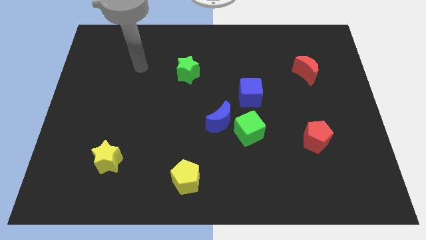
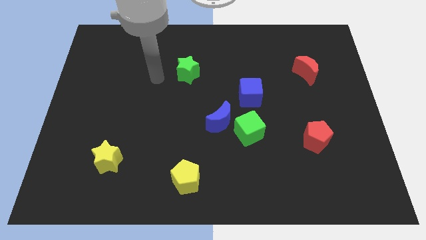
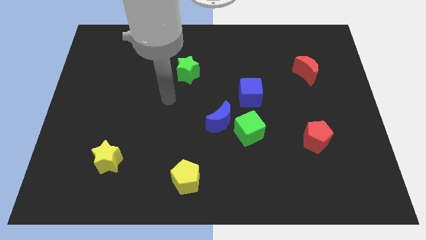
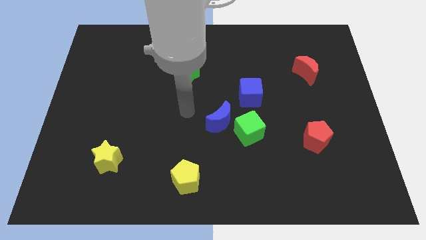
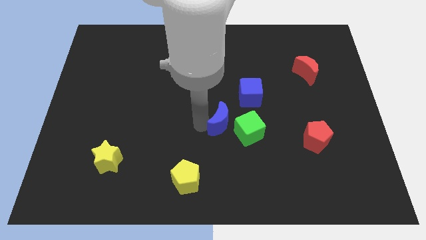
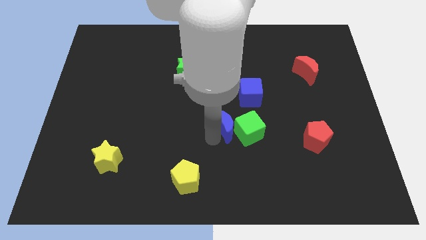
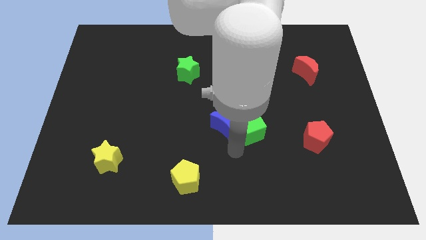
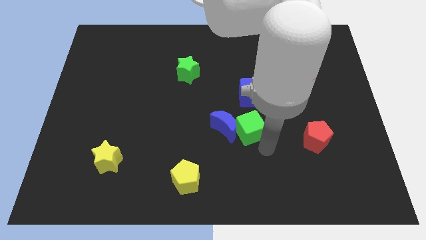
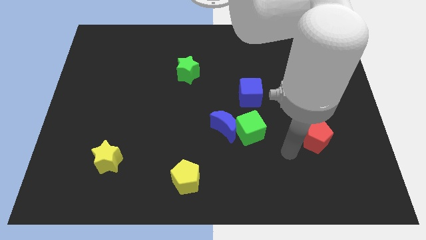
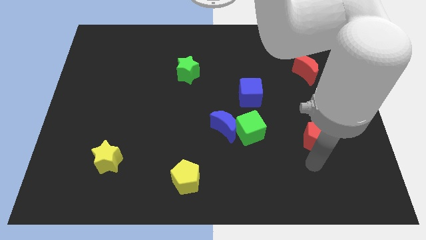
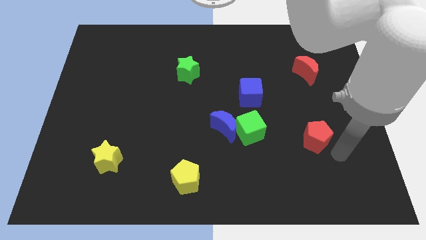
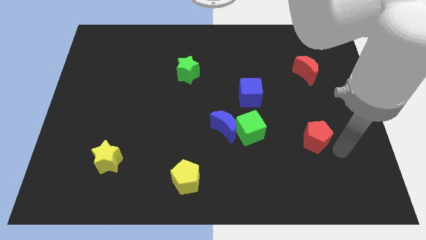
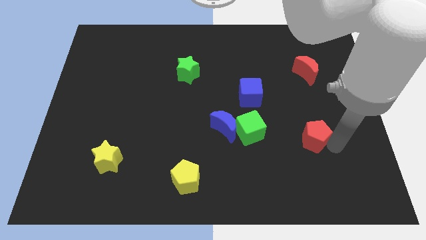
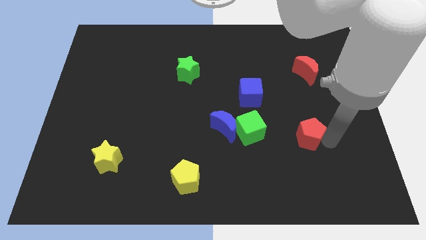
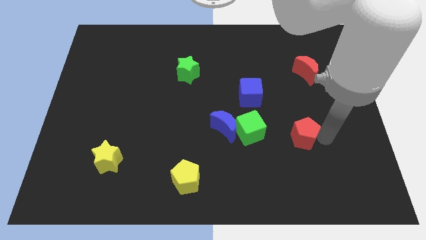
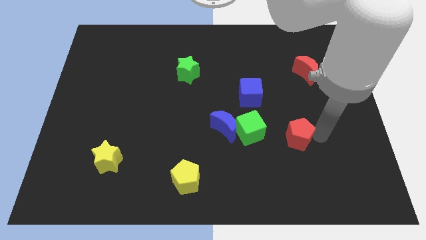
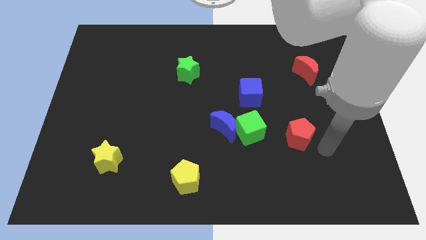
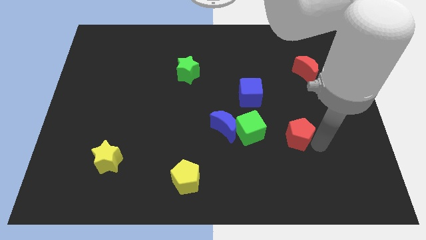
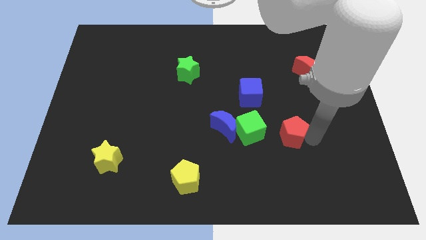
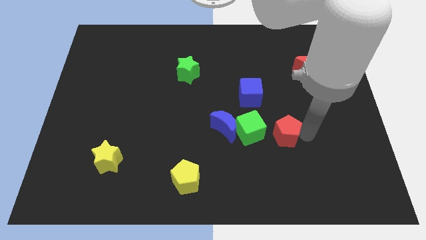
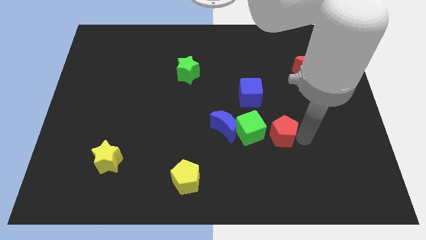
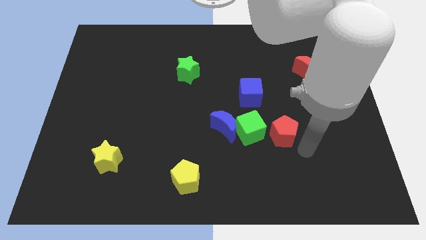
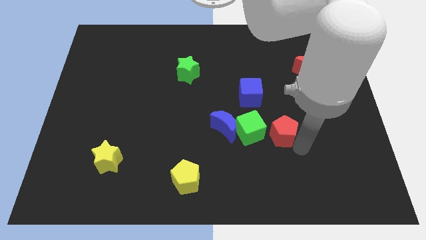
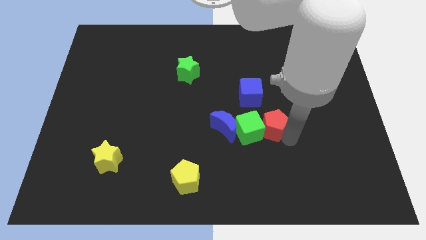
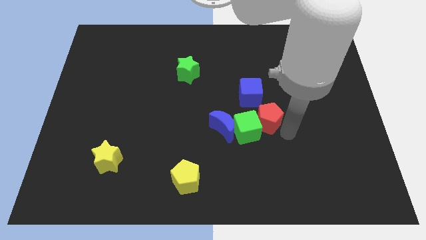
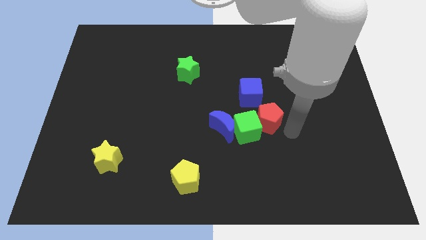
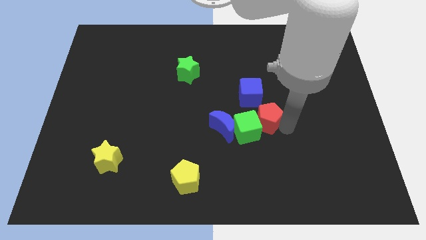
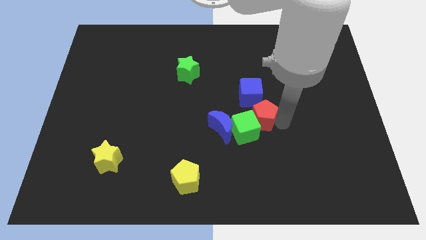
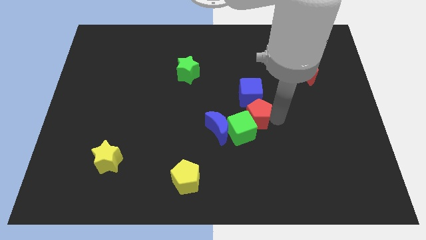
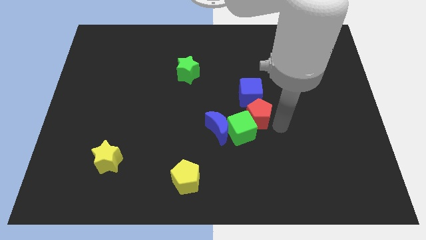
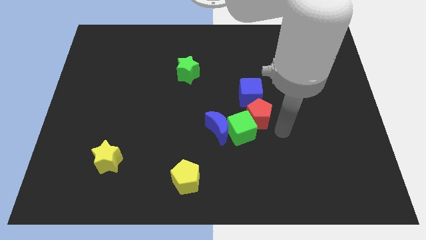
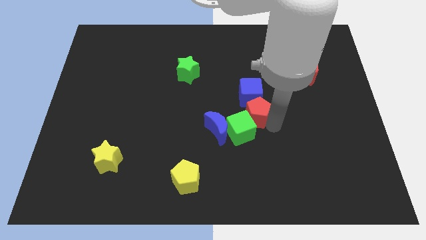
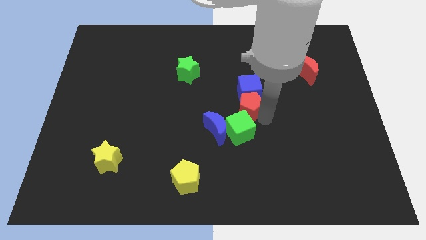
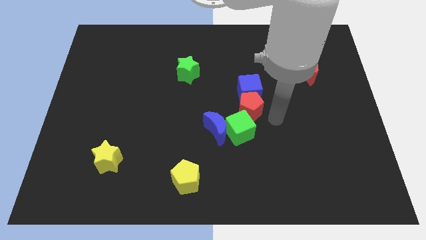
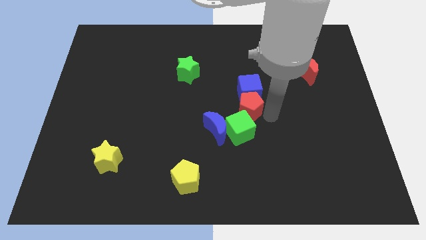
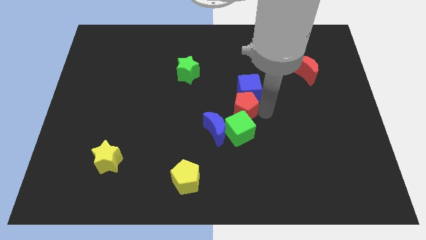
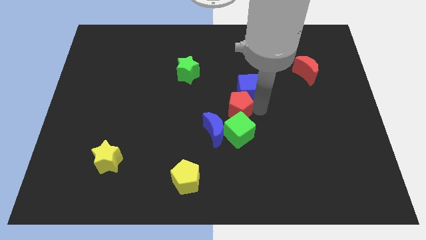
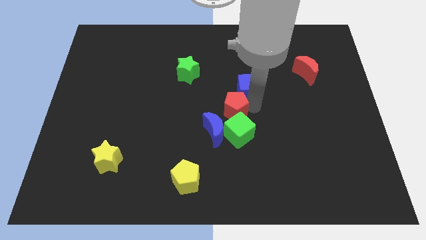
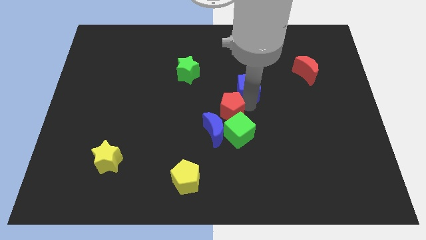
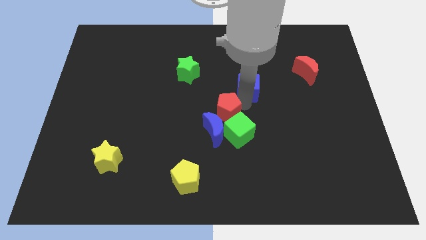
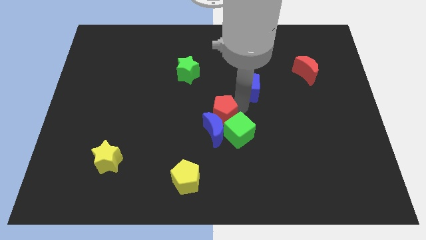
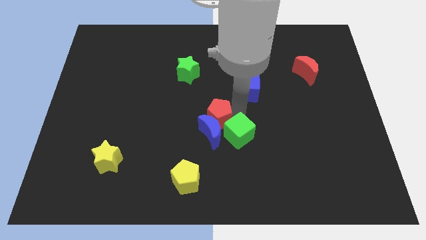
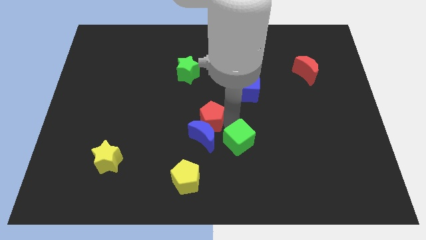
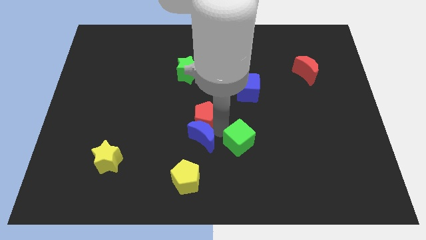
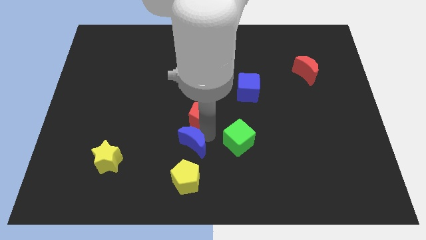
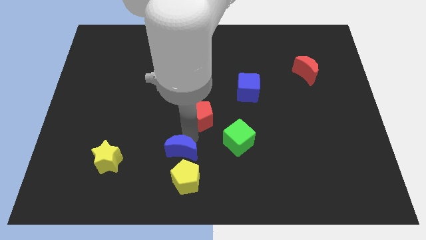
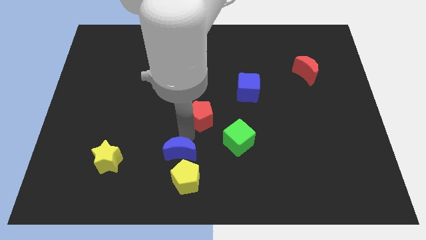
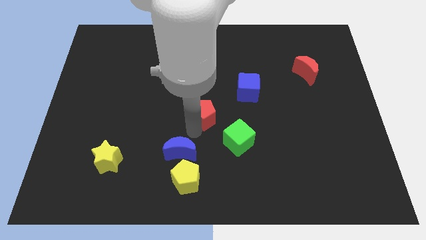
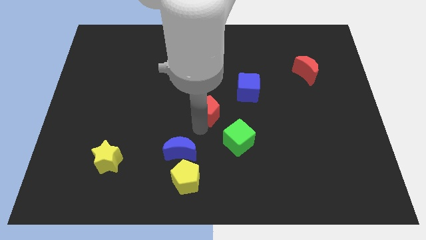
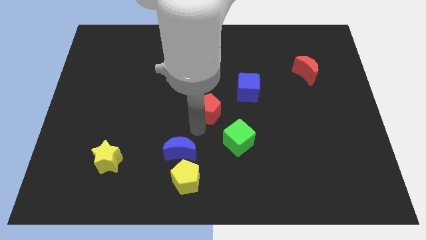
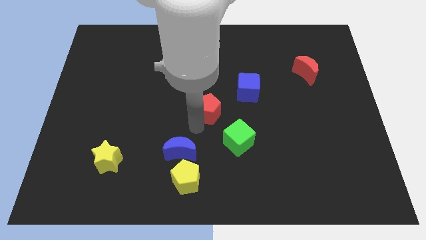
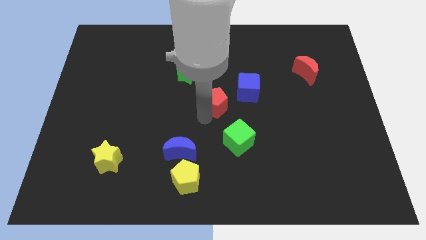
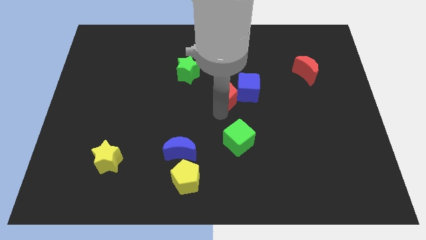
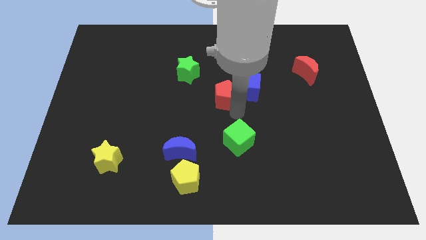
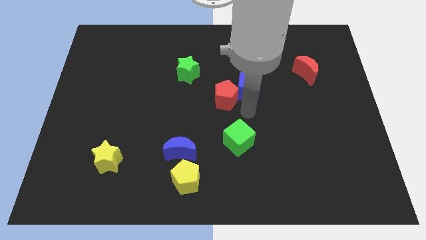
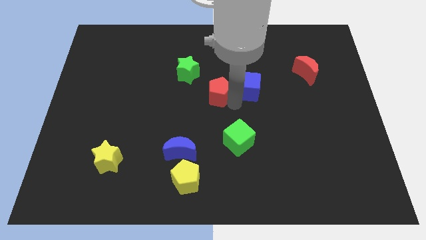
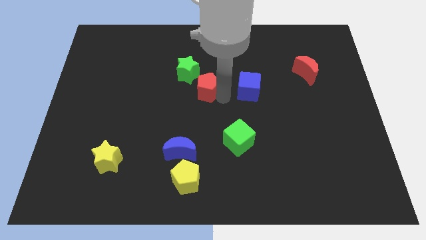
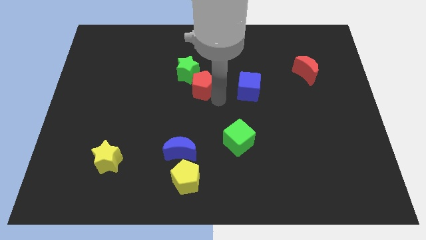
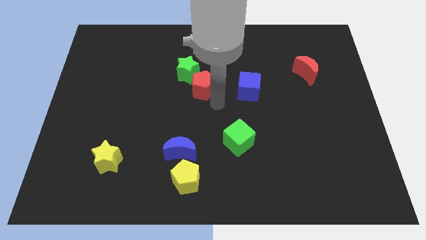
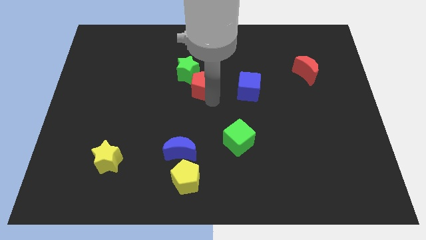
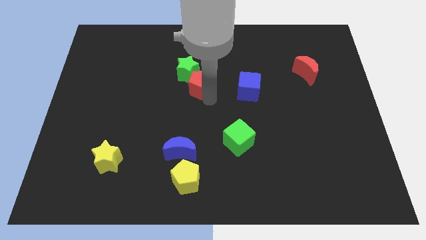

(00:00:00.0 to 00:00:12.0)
put the red pentagon to the green star

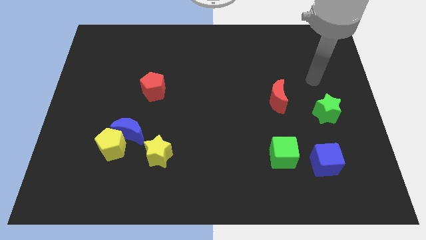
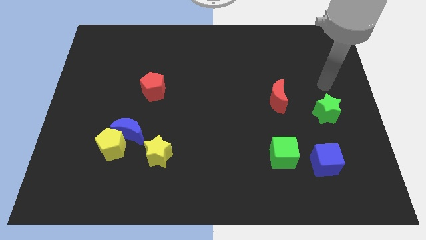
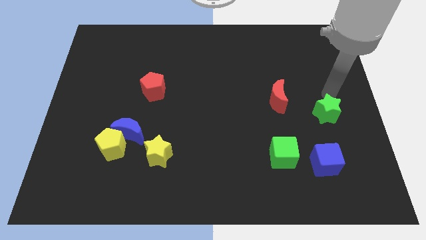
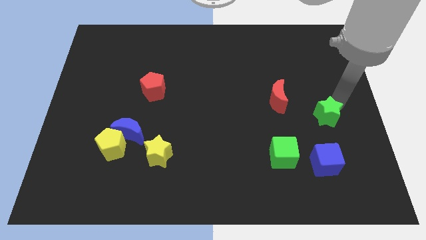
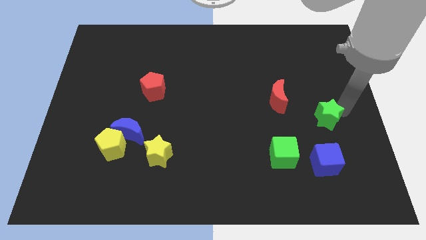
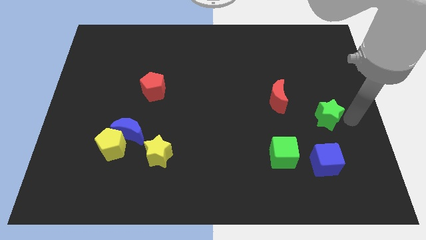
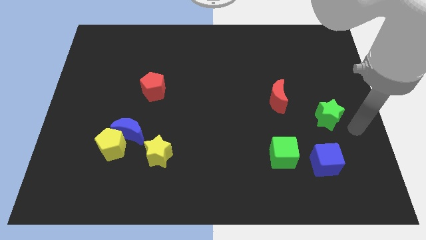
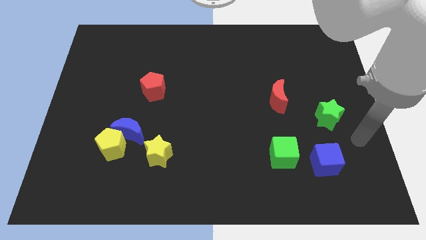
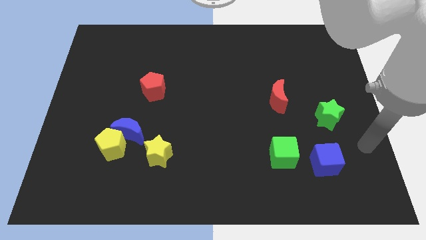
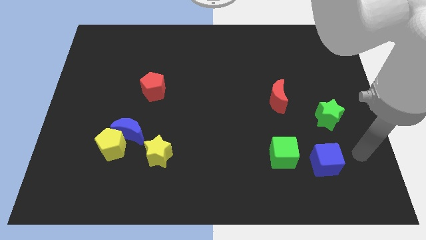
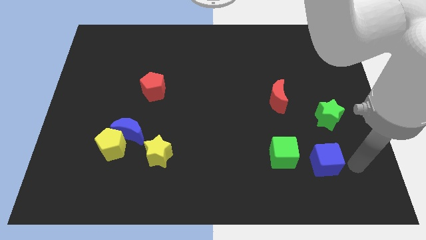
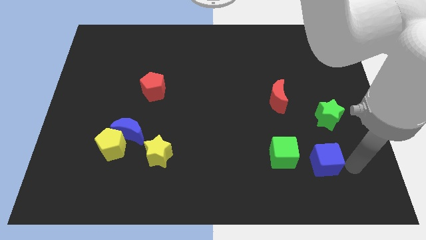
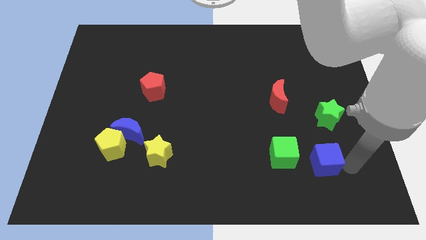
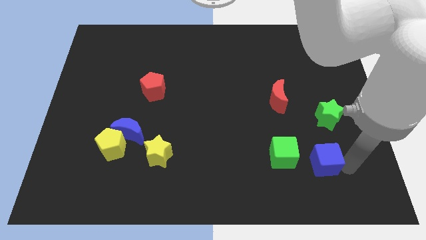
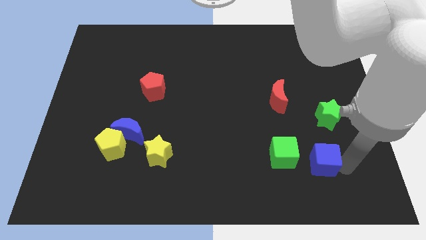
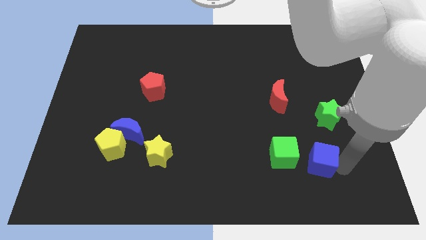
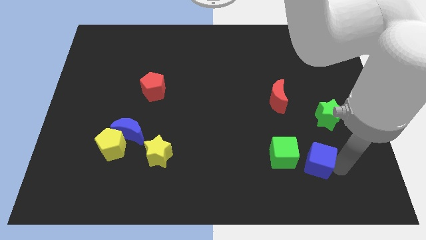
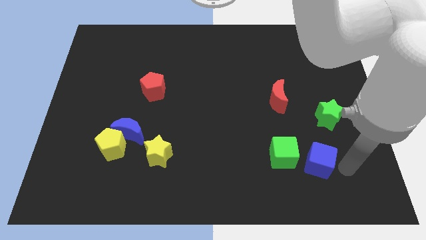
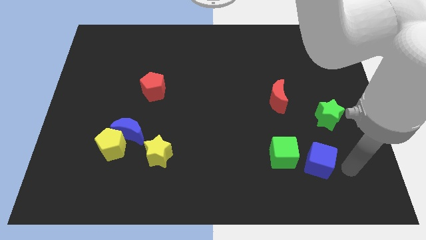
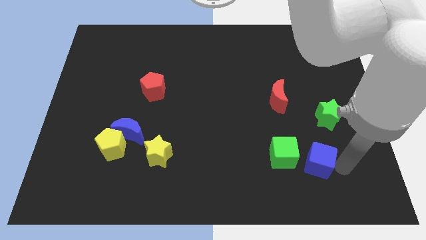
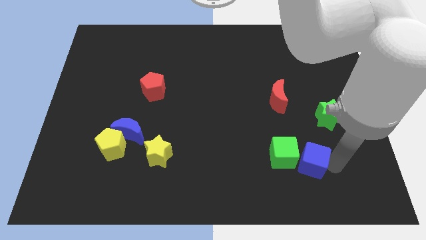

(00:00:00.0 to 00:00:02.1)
push the blue cube next to the green cube
